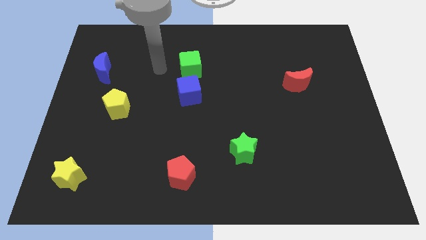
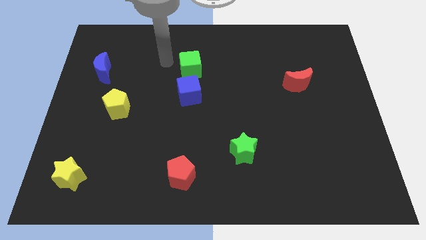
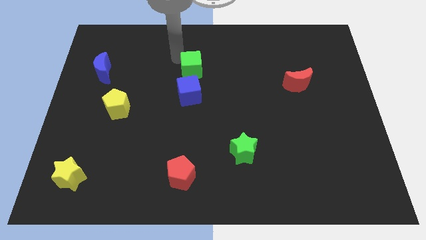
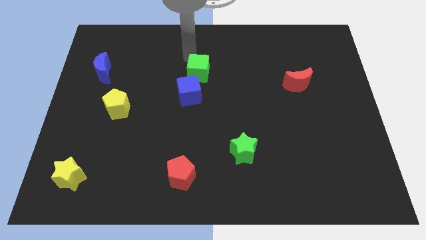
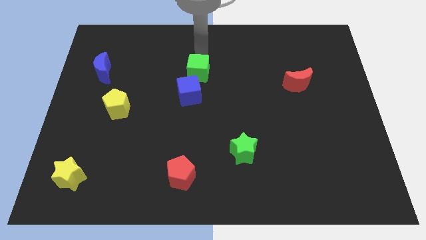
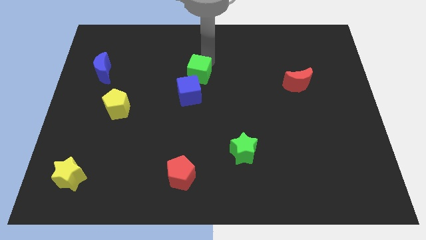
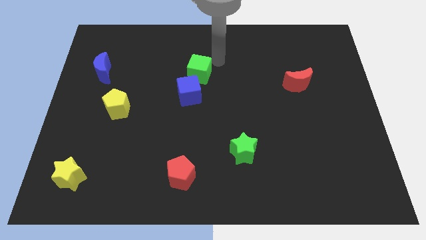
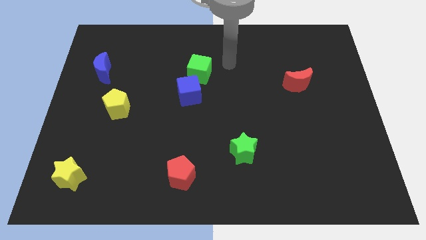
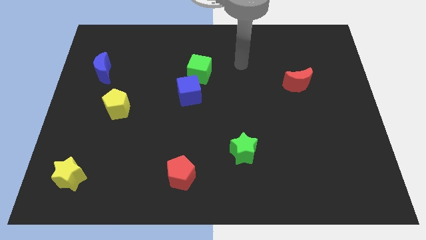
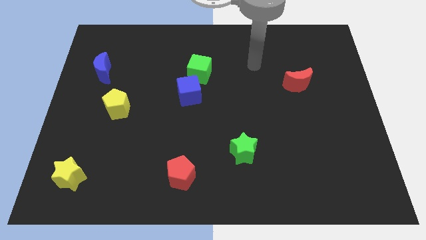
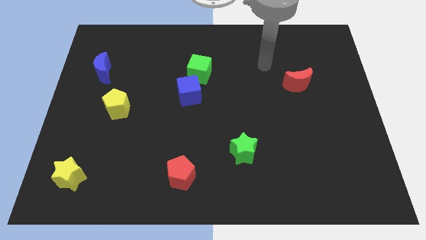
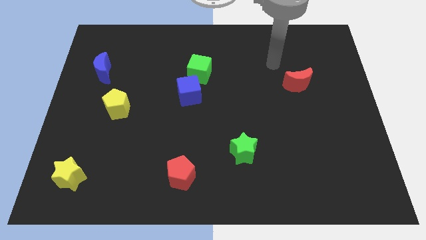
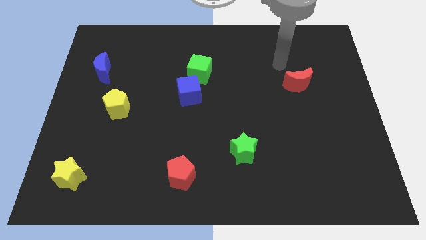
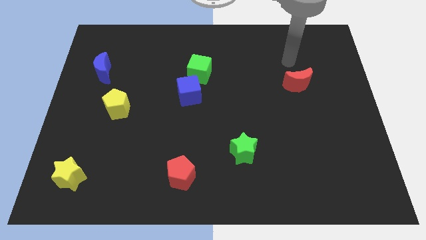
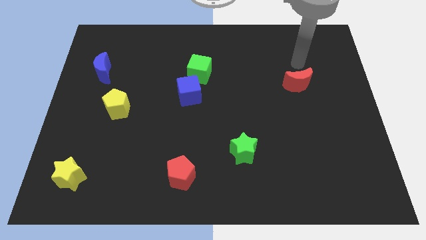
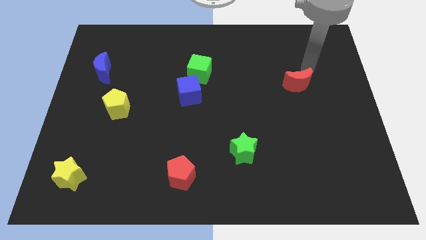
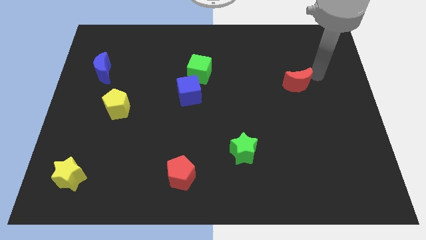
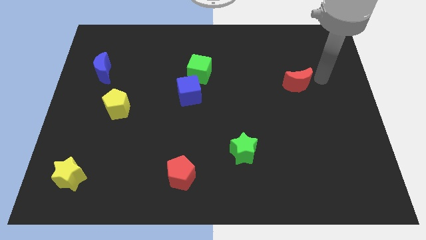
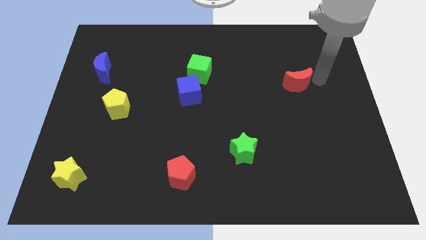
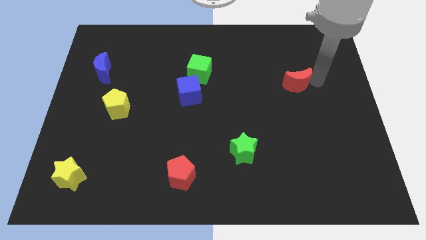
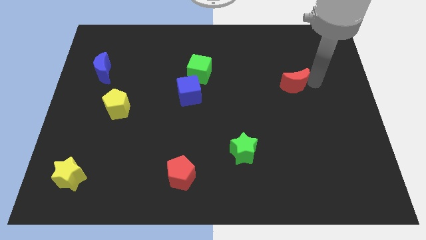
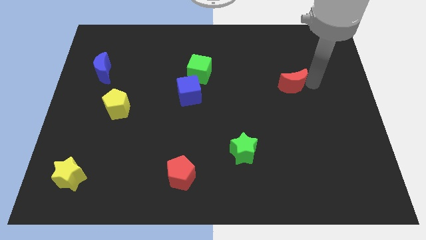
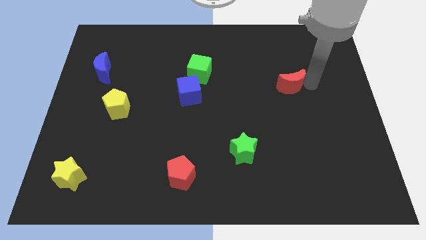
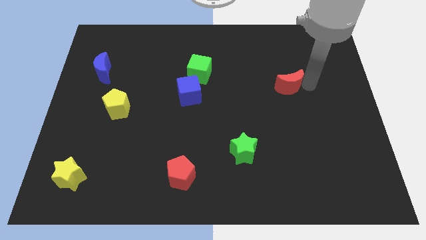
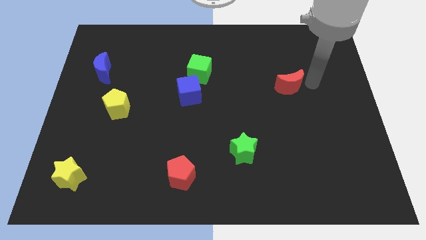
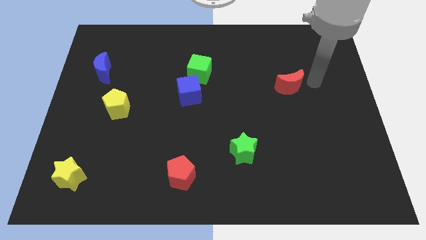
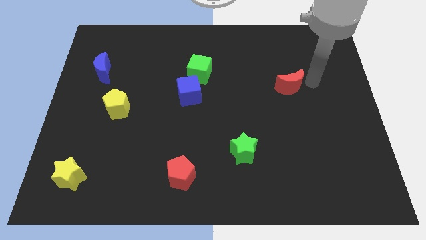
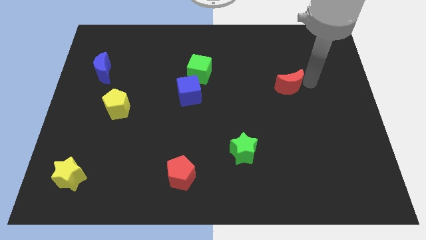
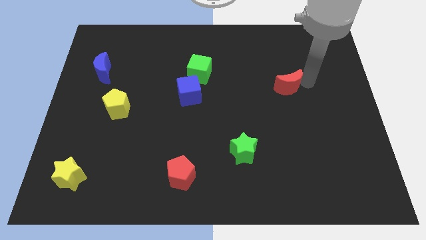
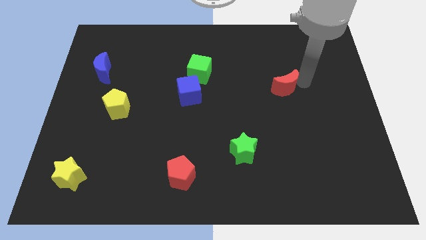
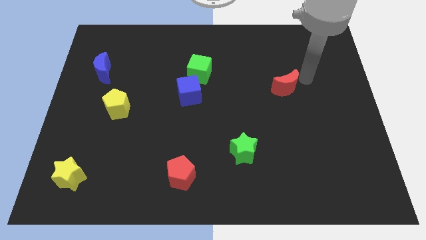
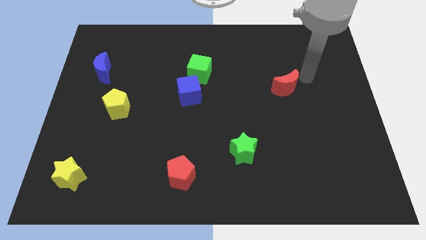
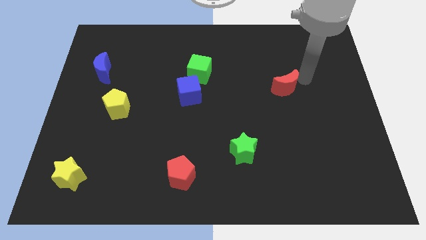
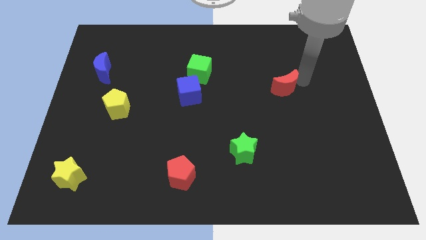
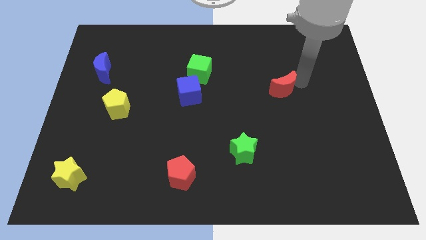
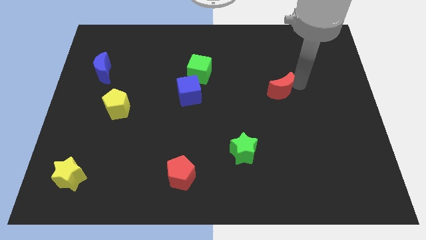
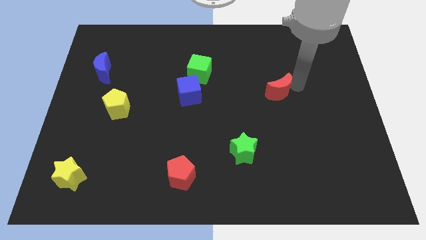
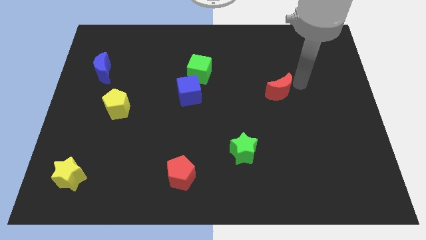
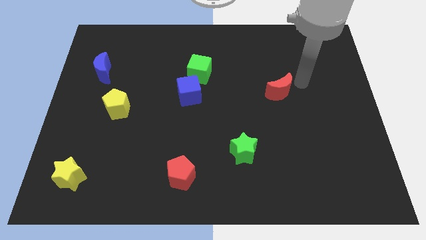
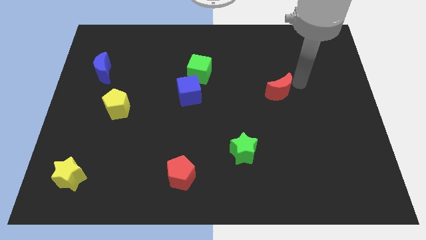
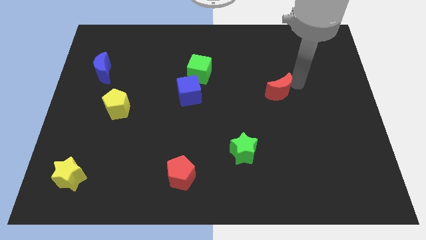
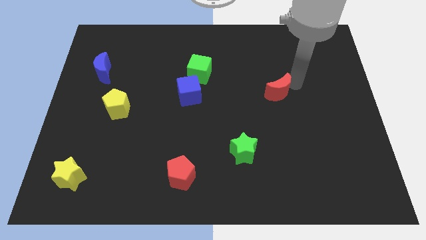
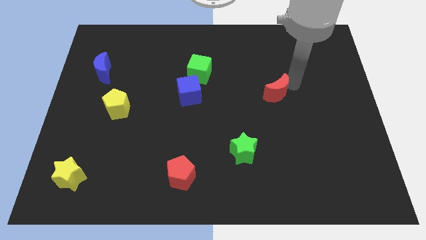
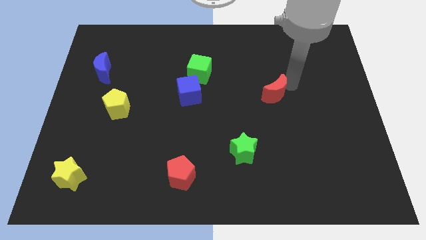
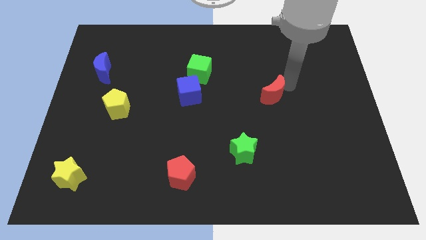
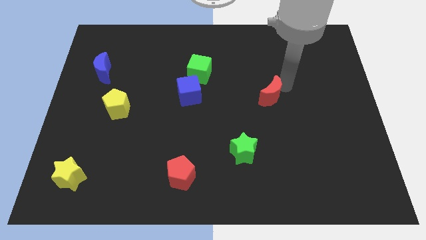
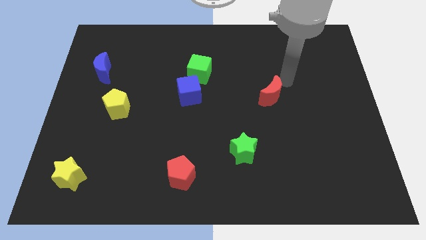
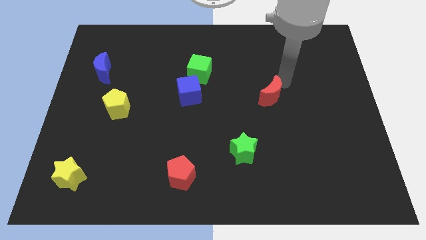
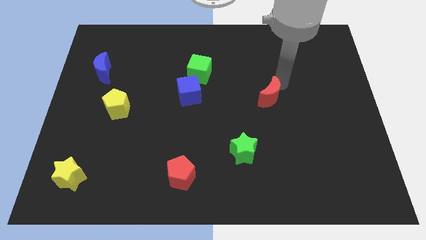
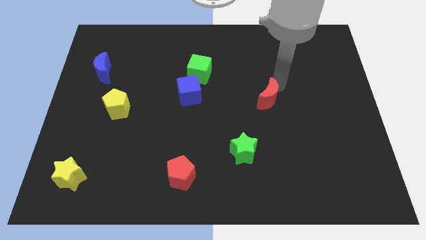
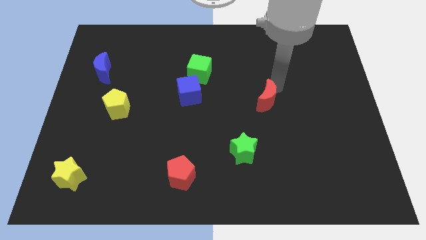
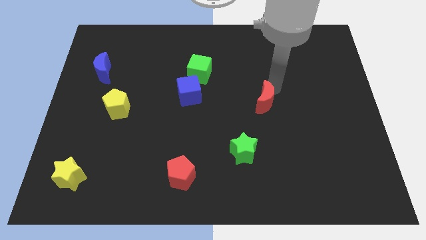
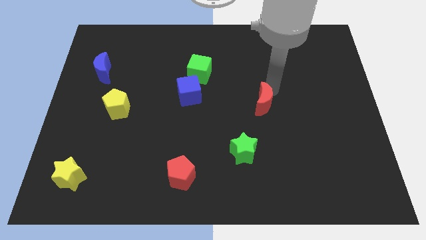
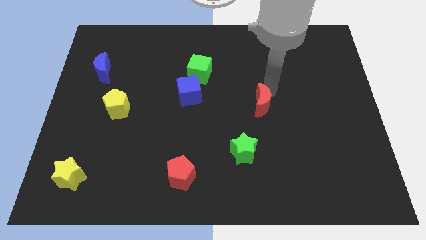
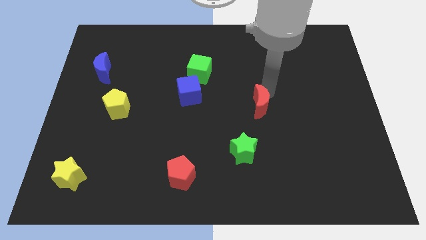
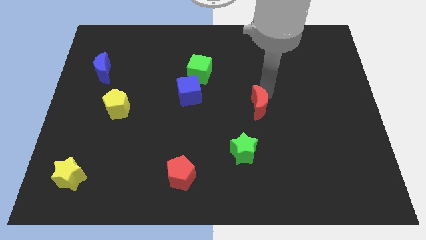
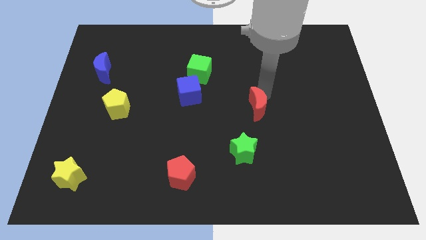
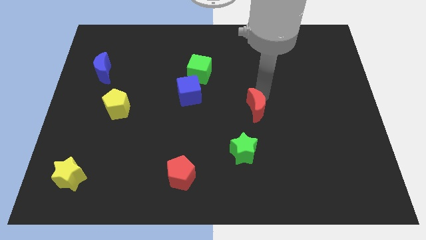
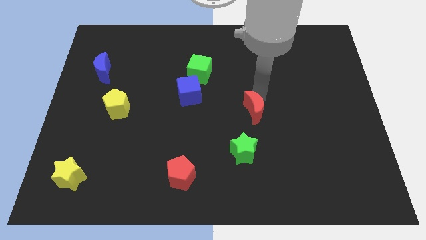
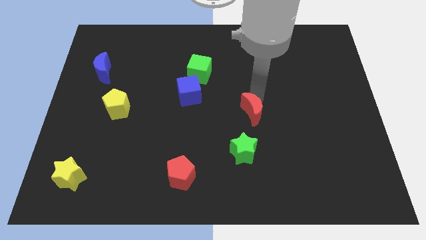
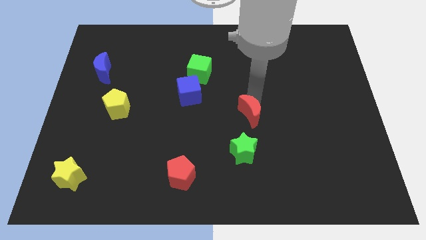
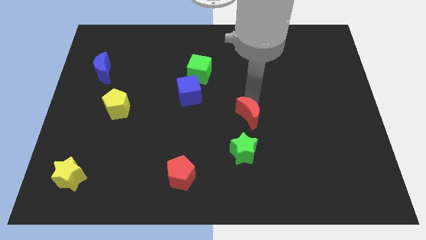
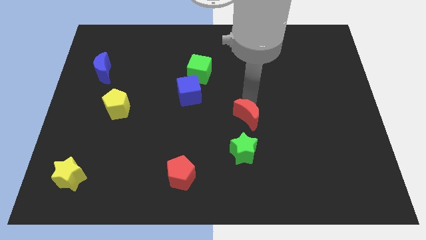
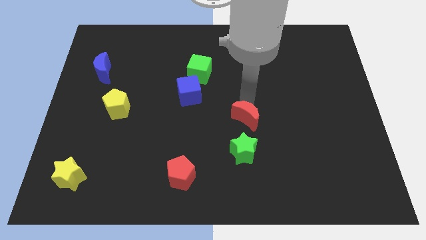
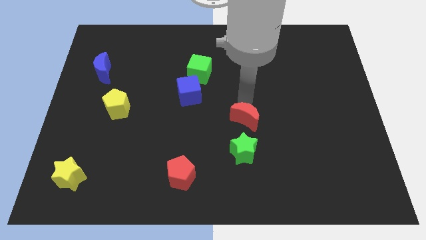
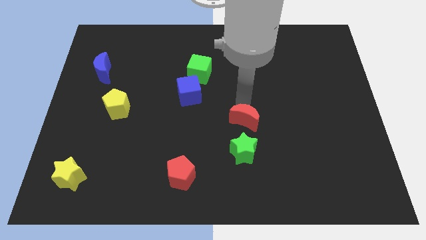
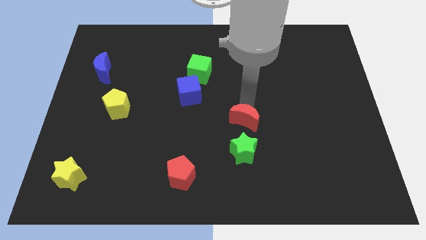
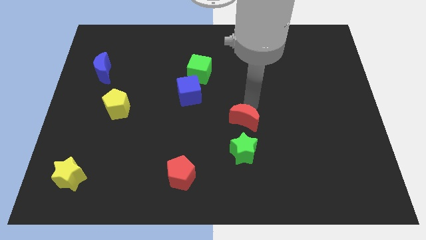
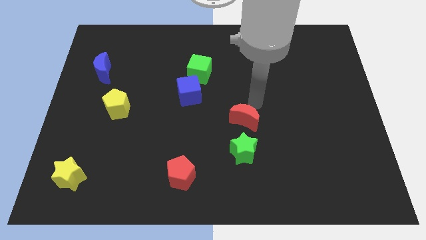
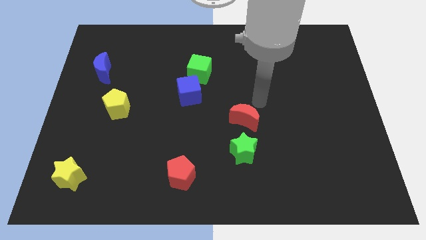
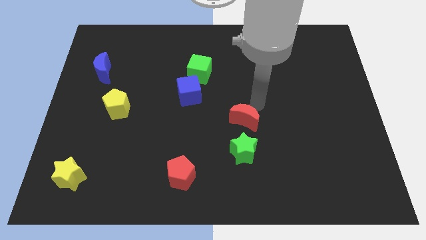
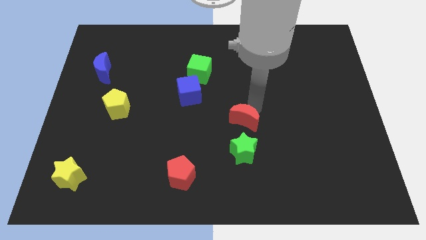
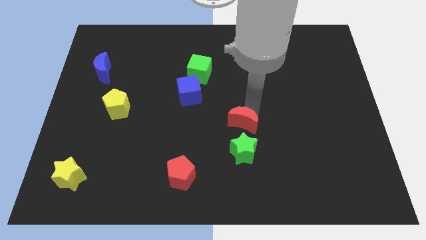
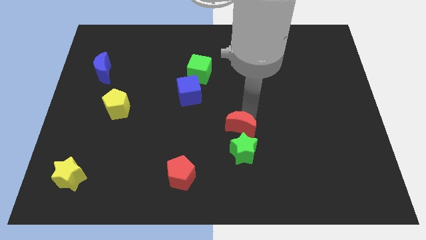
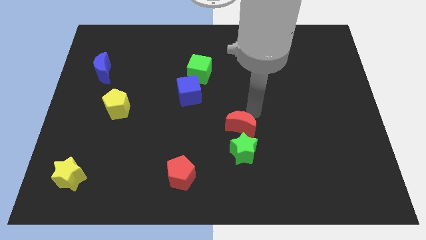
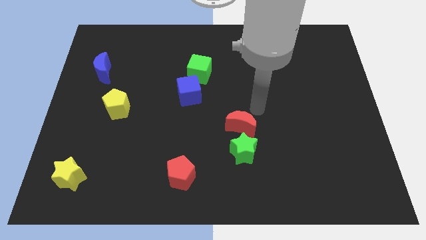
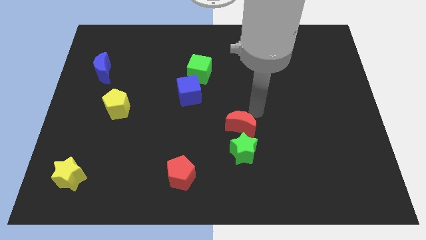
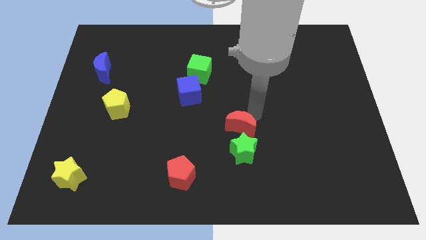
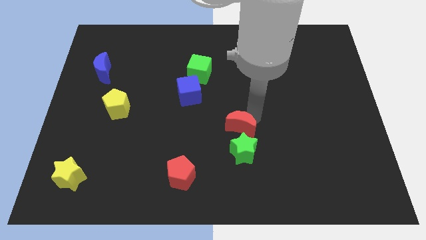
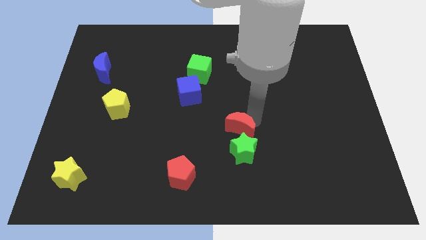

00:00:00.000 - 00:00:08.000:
slide the red moon down and left

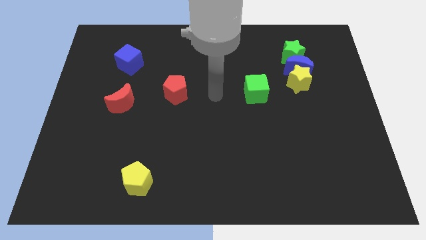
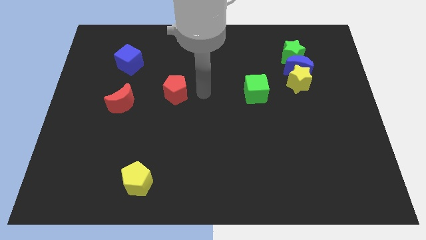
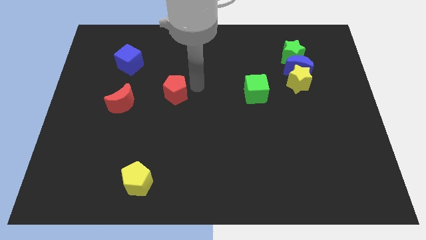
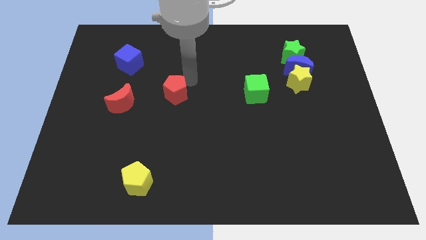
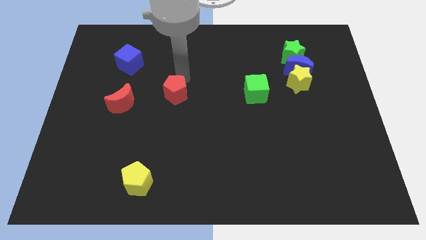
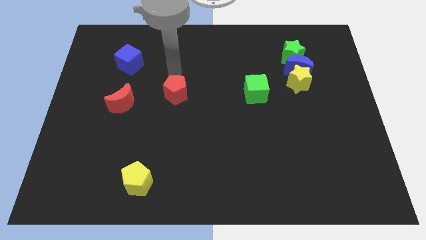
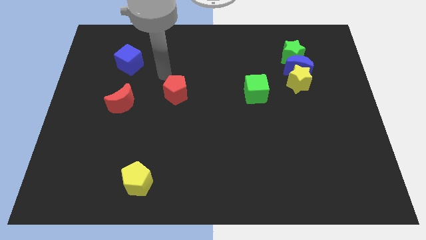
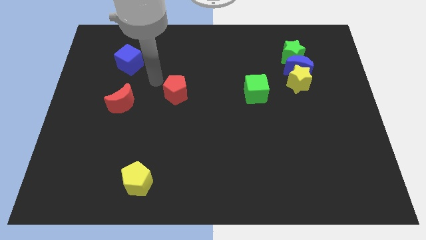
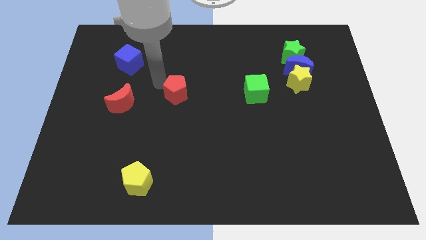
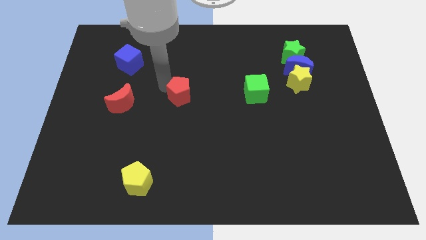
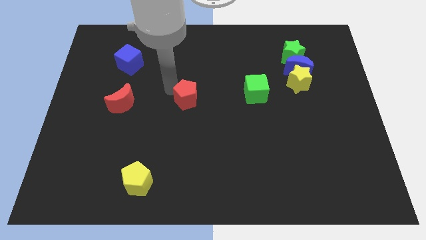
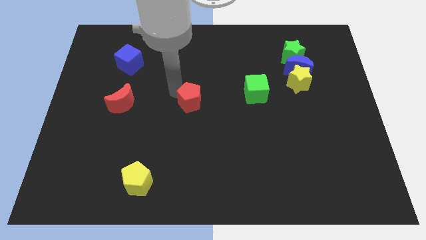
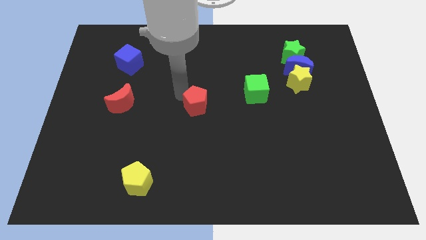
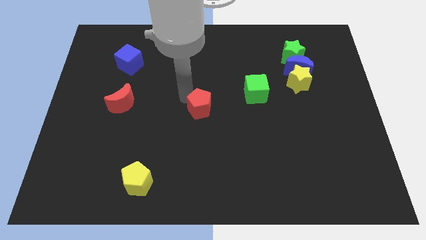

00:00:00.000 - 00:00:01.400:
move the red pentagon slightly downwards and to the right diagonally
